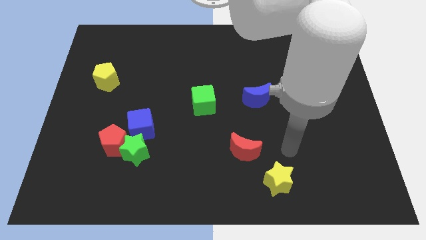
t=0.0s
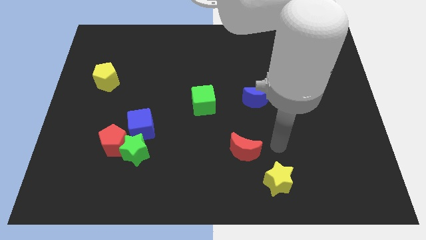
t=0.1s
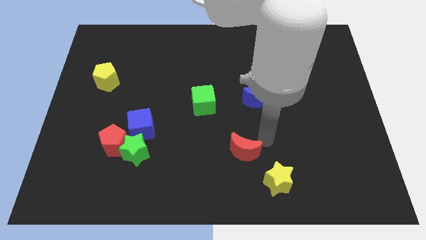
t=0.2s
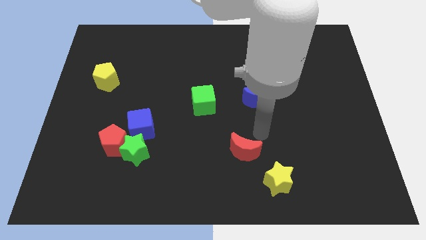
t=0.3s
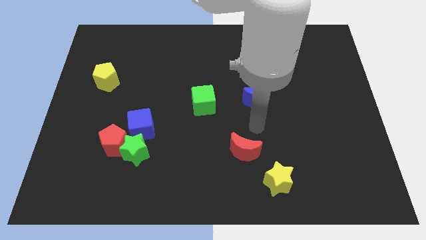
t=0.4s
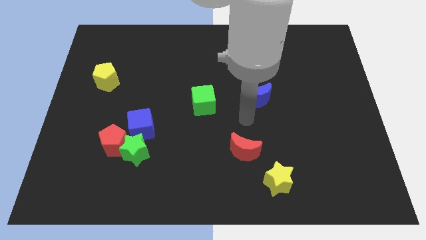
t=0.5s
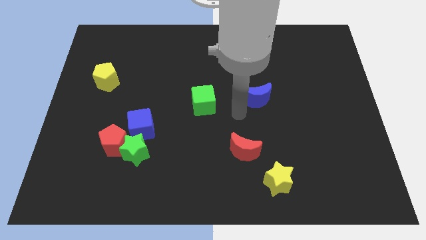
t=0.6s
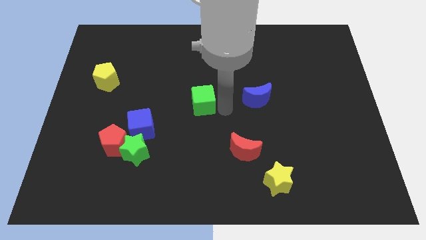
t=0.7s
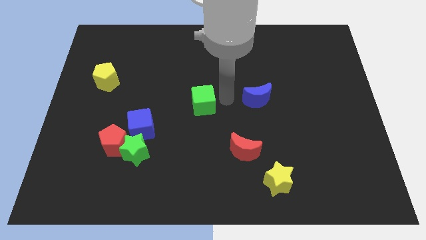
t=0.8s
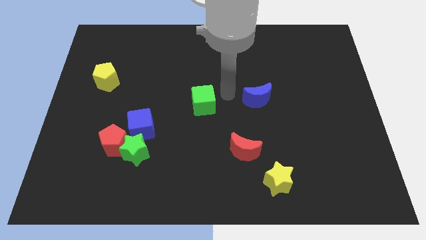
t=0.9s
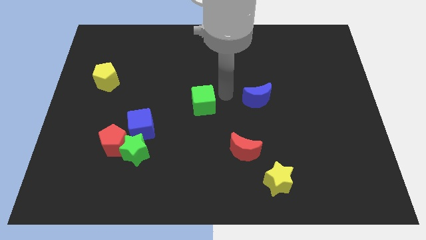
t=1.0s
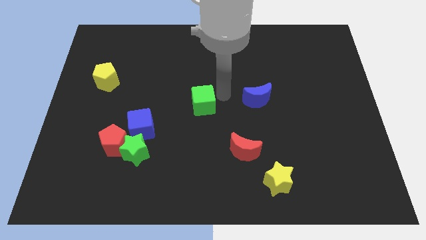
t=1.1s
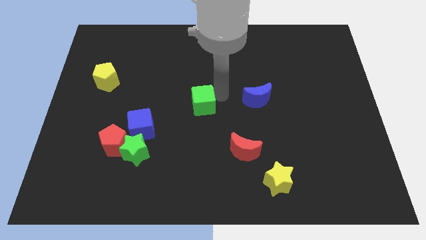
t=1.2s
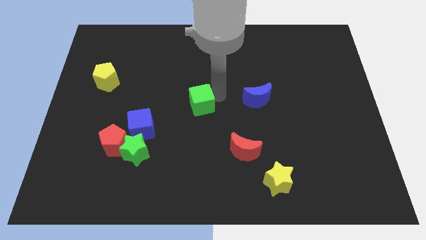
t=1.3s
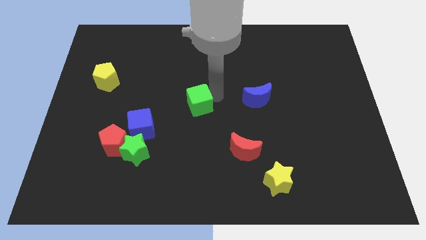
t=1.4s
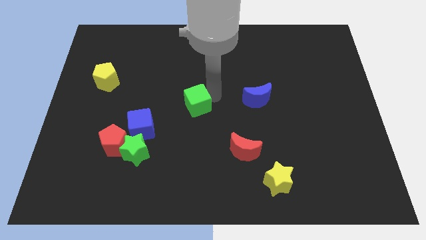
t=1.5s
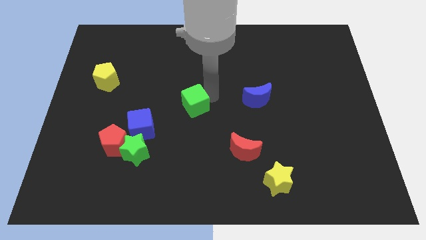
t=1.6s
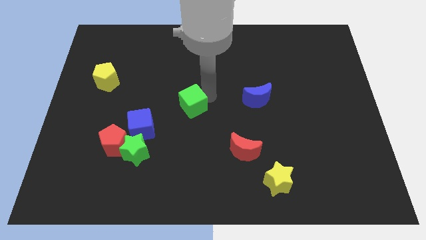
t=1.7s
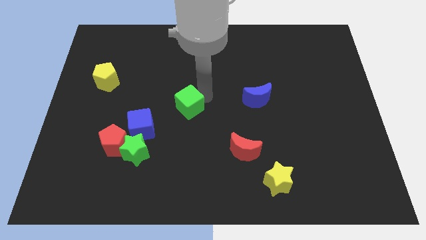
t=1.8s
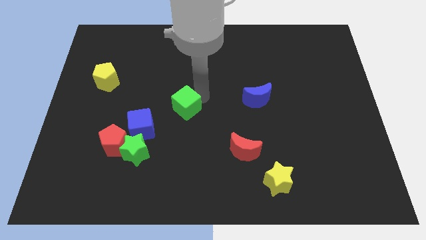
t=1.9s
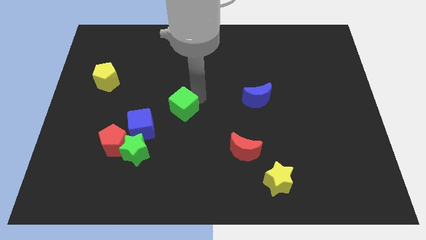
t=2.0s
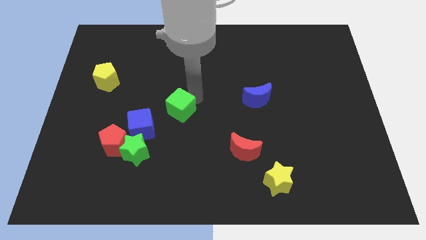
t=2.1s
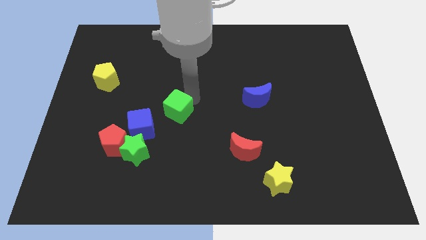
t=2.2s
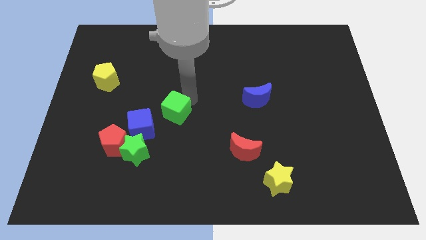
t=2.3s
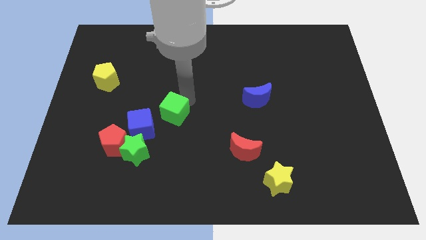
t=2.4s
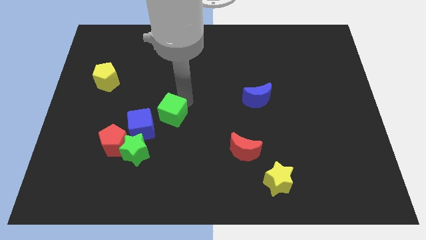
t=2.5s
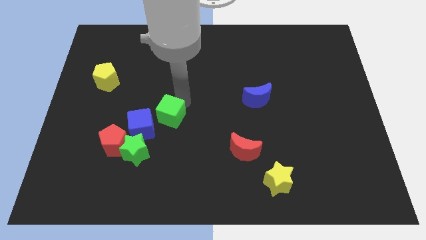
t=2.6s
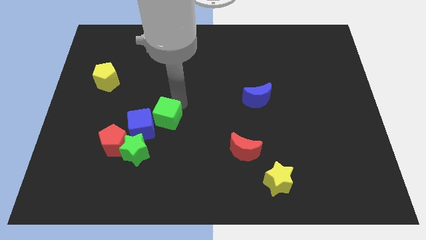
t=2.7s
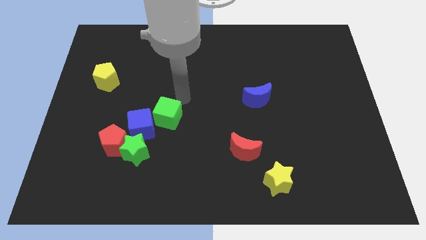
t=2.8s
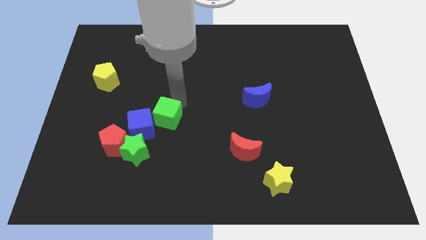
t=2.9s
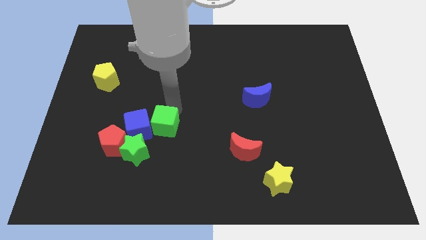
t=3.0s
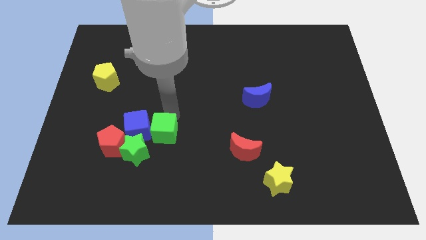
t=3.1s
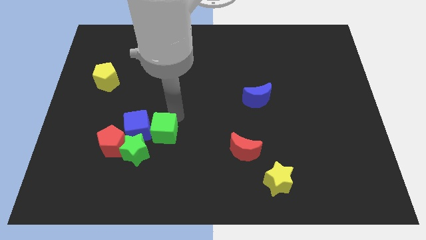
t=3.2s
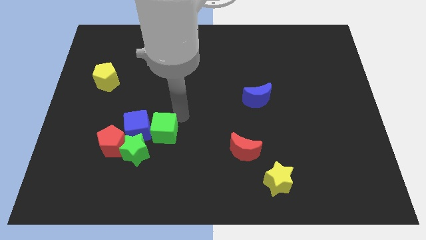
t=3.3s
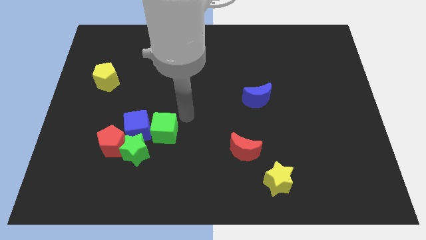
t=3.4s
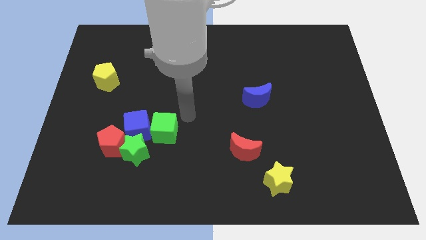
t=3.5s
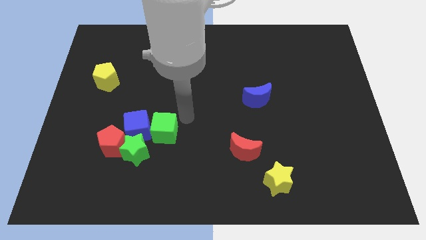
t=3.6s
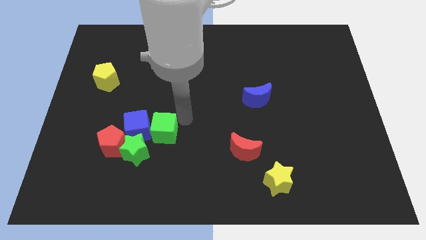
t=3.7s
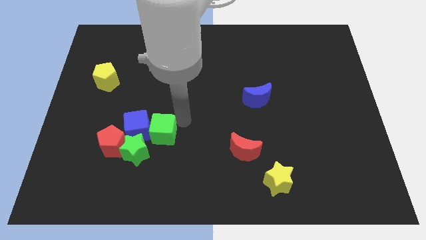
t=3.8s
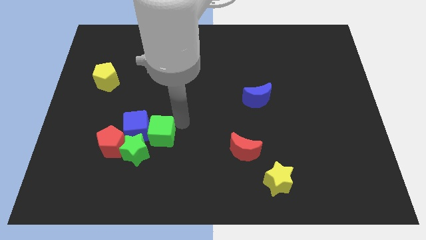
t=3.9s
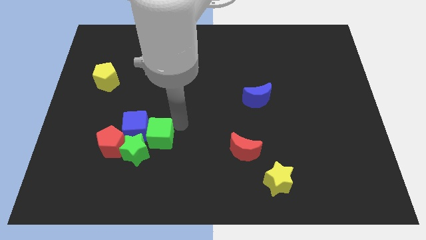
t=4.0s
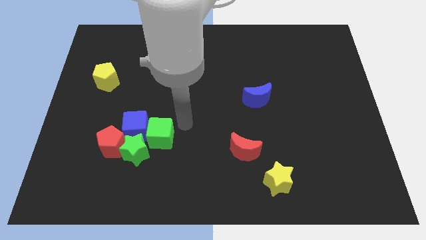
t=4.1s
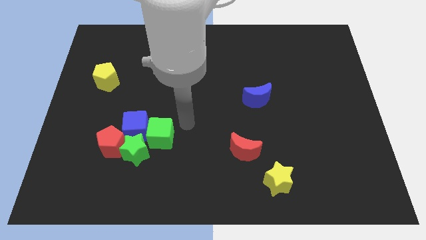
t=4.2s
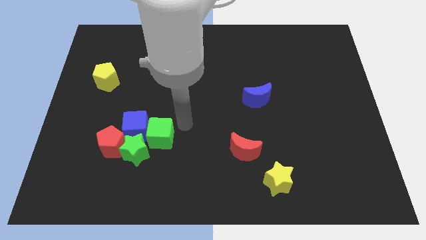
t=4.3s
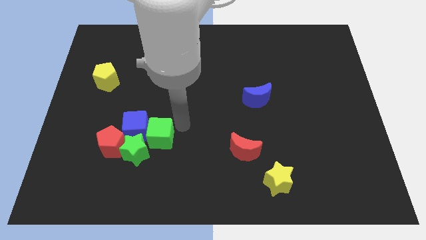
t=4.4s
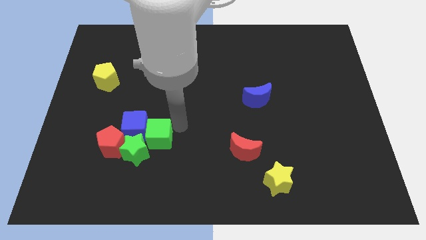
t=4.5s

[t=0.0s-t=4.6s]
slide the green cube next to the green star

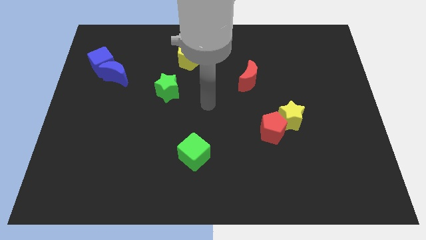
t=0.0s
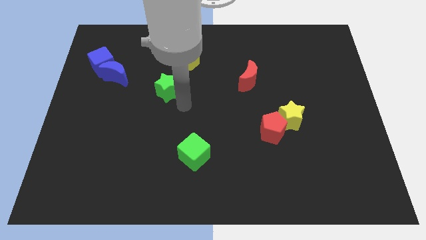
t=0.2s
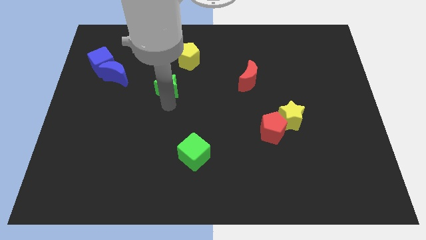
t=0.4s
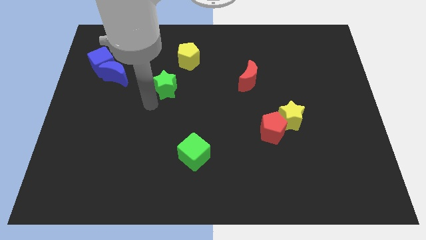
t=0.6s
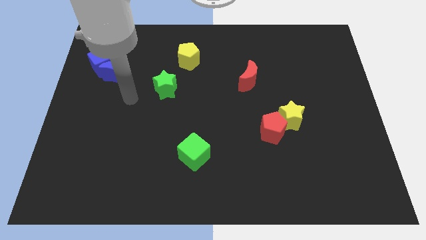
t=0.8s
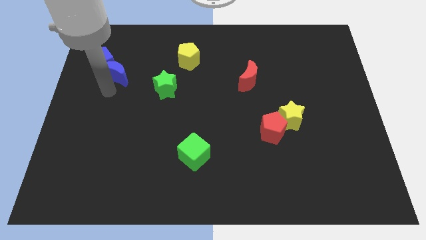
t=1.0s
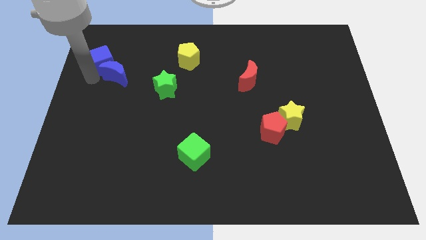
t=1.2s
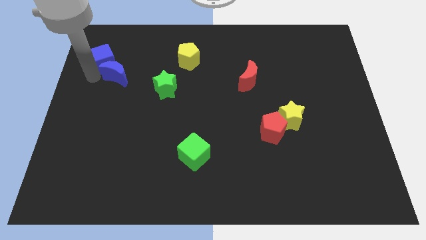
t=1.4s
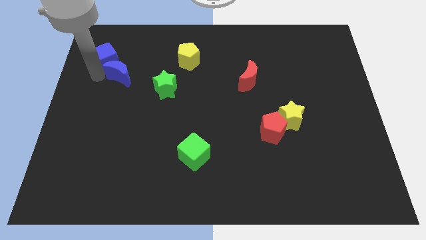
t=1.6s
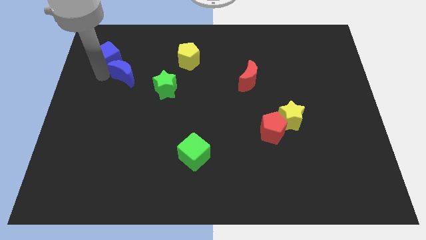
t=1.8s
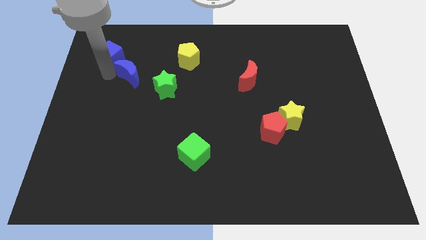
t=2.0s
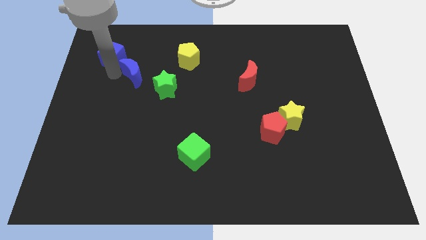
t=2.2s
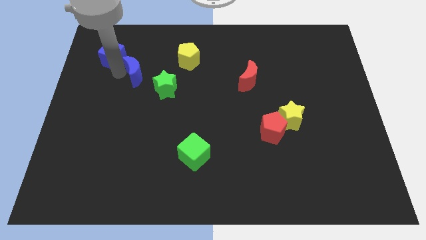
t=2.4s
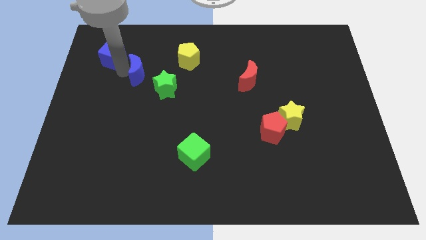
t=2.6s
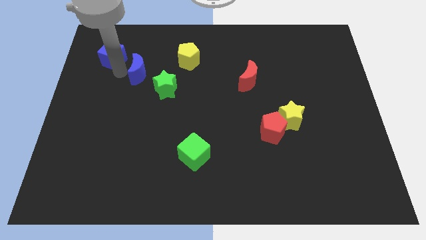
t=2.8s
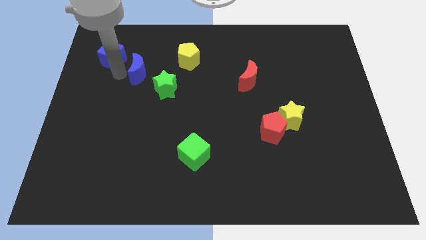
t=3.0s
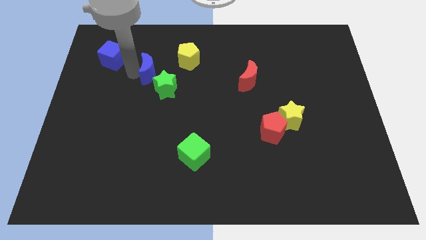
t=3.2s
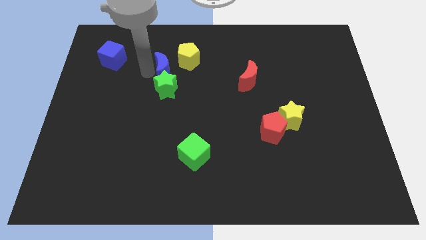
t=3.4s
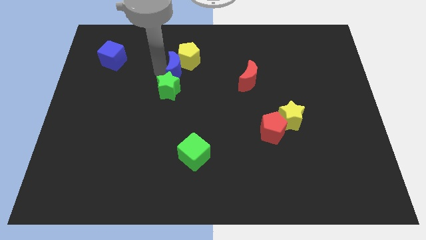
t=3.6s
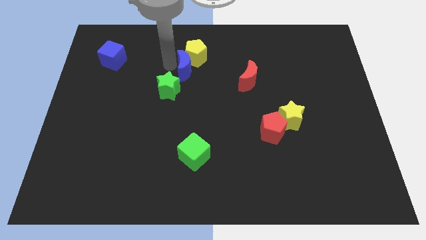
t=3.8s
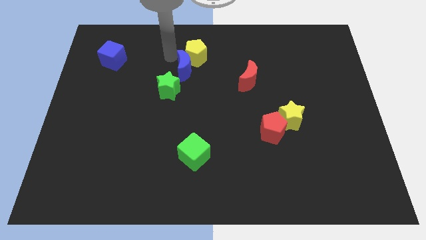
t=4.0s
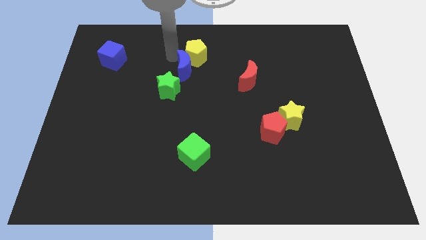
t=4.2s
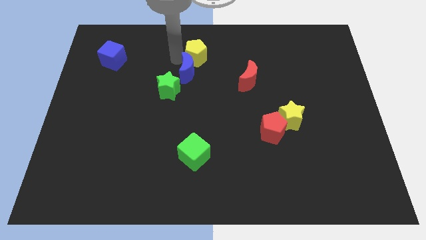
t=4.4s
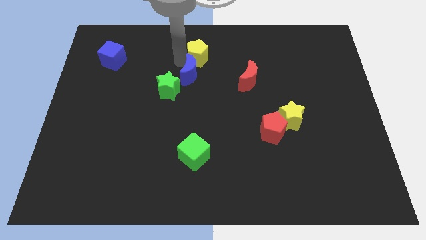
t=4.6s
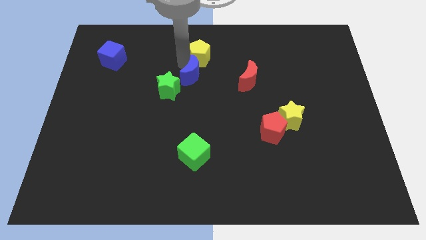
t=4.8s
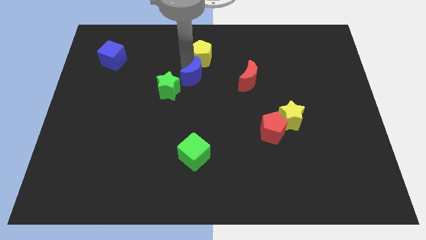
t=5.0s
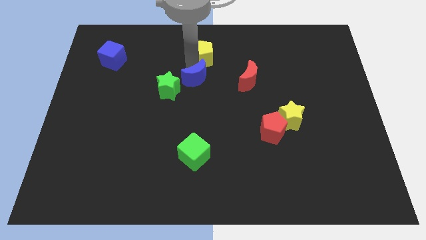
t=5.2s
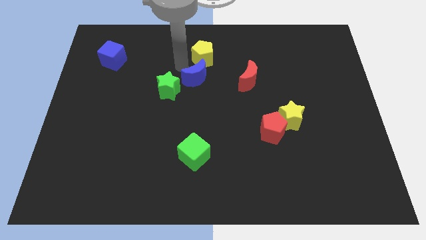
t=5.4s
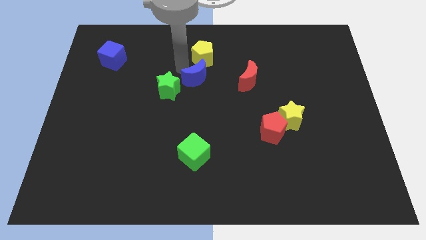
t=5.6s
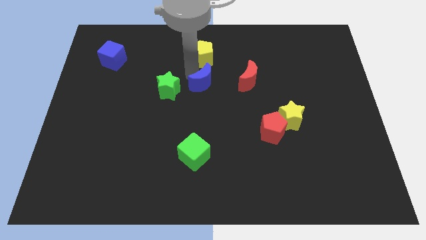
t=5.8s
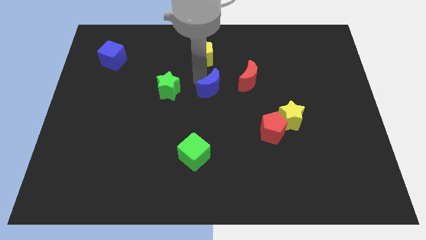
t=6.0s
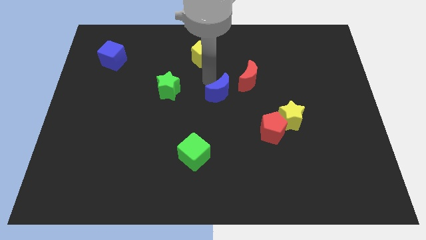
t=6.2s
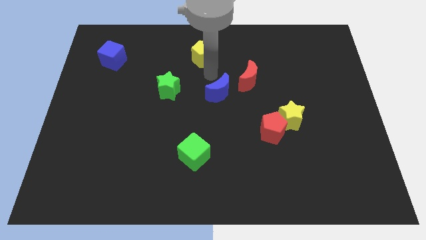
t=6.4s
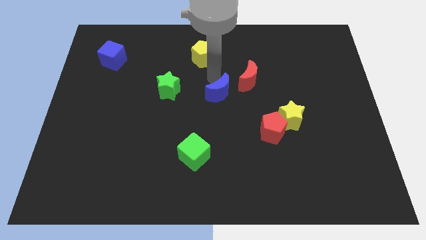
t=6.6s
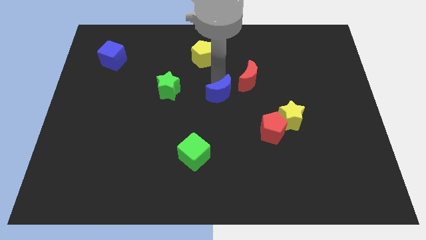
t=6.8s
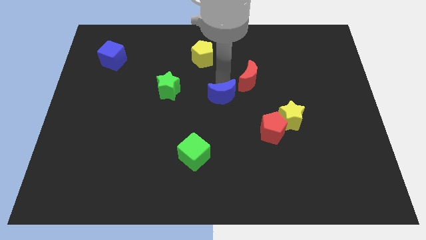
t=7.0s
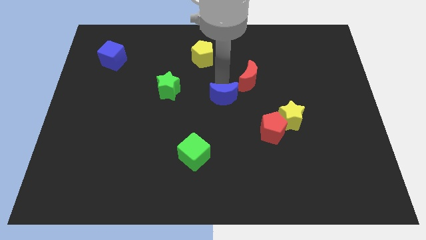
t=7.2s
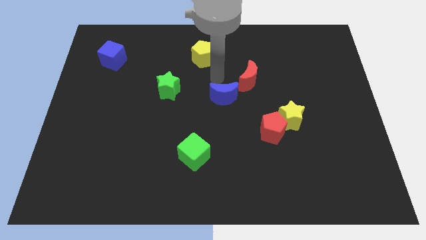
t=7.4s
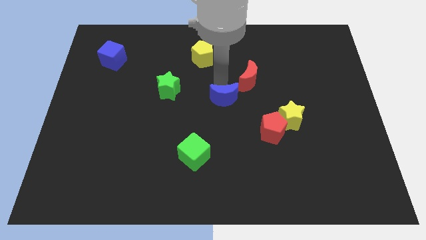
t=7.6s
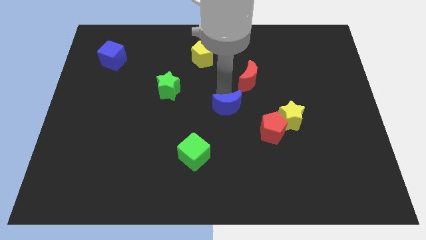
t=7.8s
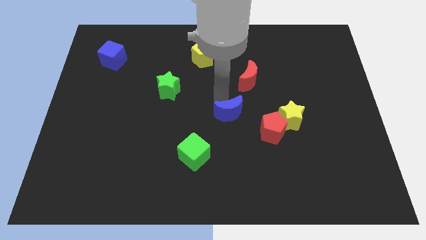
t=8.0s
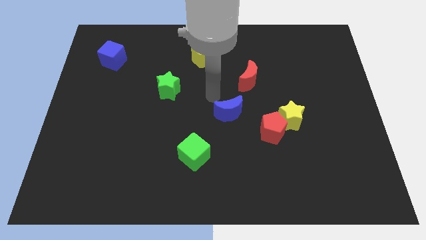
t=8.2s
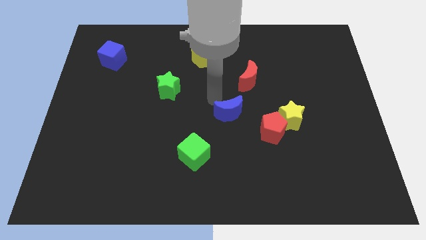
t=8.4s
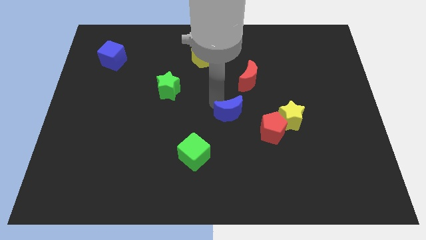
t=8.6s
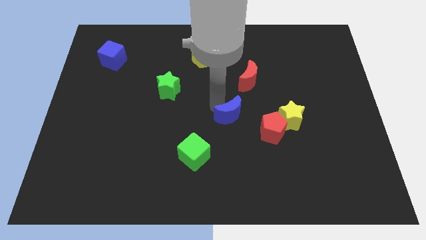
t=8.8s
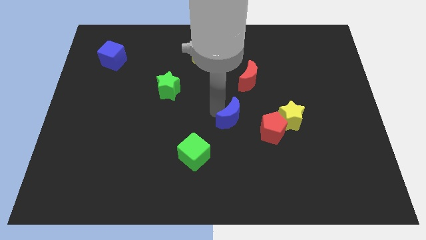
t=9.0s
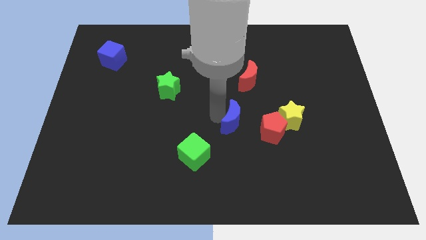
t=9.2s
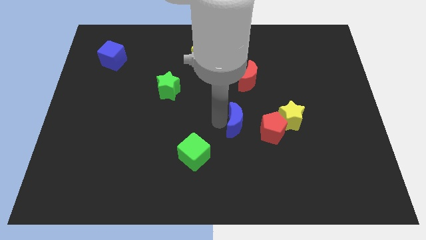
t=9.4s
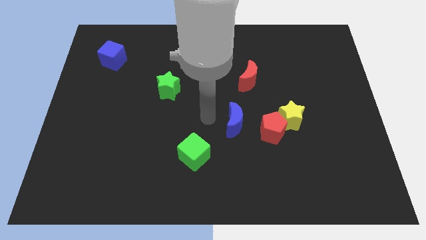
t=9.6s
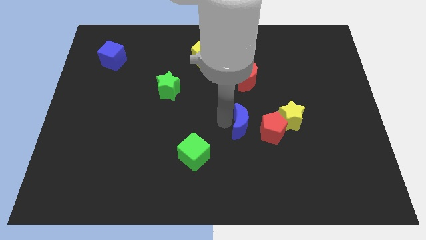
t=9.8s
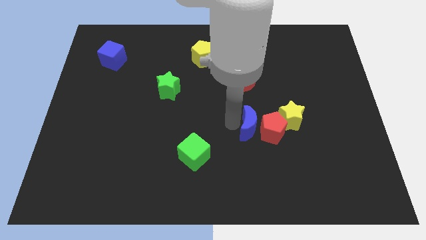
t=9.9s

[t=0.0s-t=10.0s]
slide the blue moon next to the red pentagon
